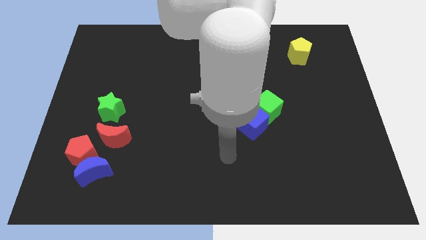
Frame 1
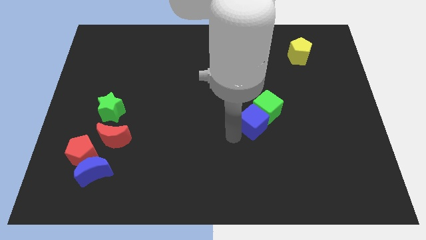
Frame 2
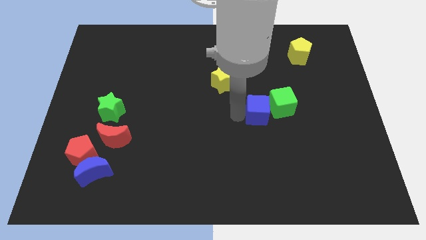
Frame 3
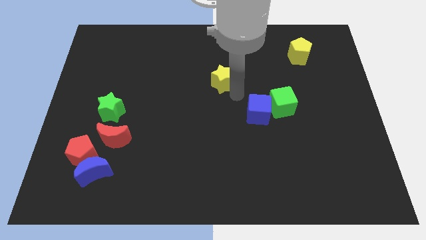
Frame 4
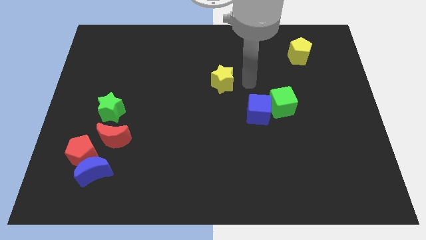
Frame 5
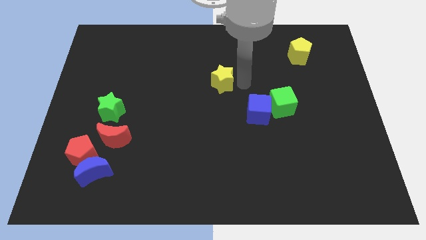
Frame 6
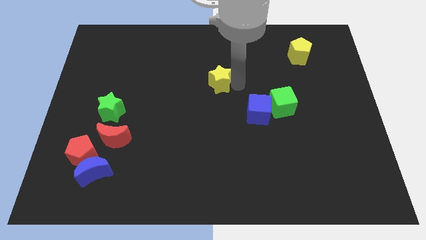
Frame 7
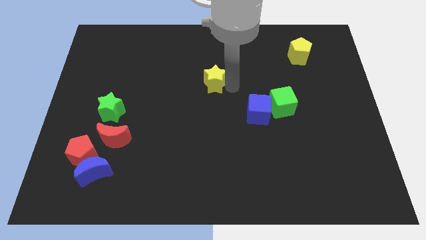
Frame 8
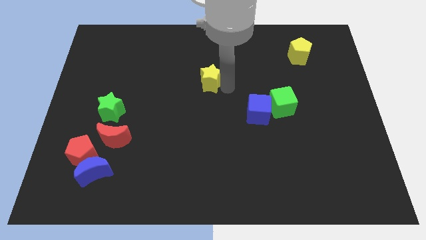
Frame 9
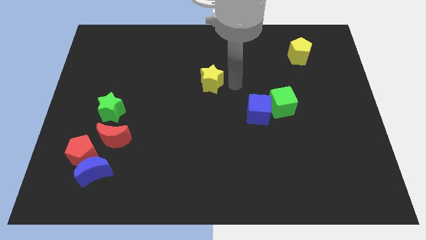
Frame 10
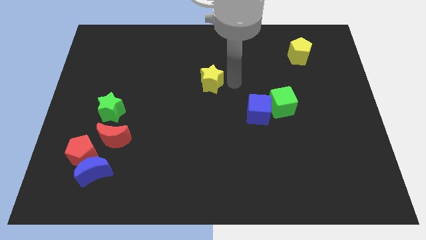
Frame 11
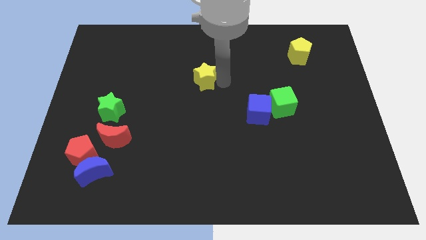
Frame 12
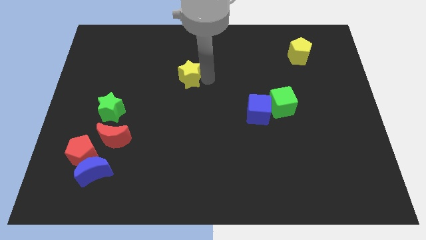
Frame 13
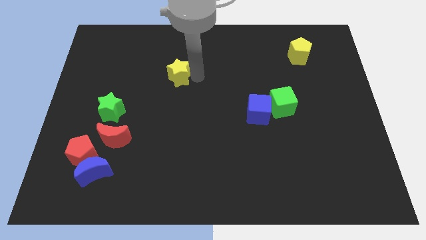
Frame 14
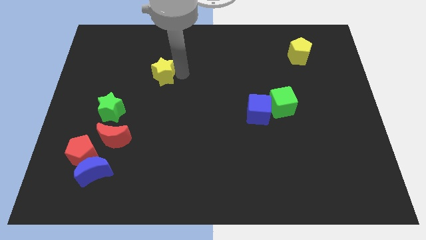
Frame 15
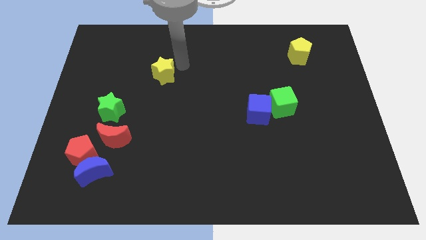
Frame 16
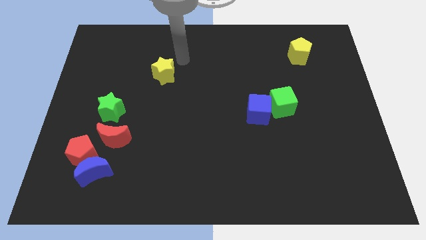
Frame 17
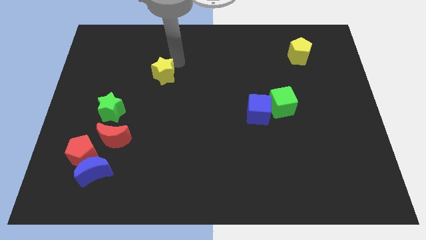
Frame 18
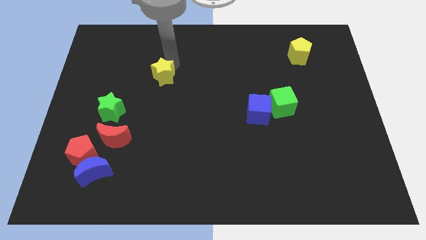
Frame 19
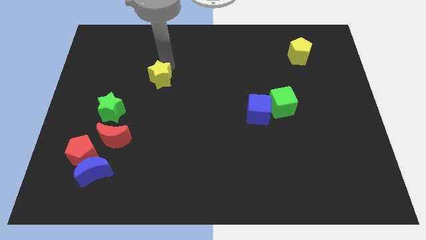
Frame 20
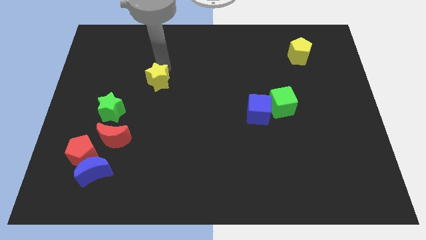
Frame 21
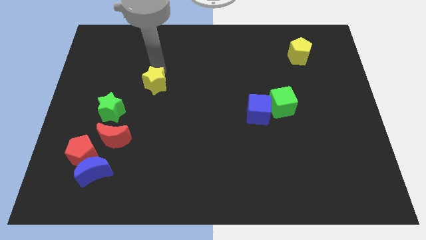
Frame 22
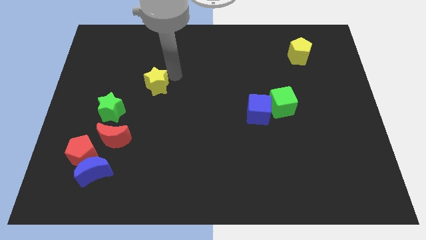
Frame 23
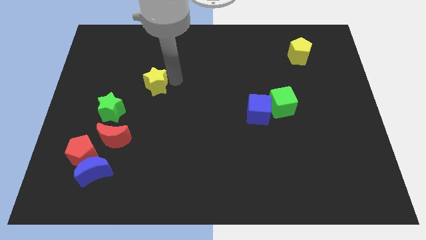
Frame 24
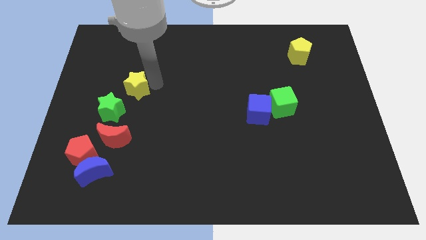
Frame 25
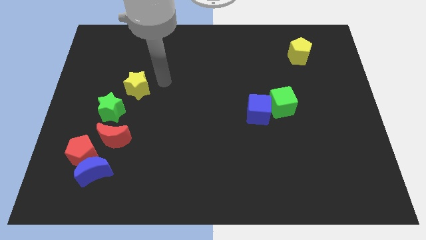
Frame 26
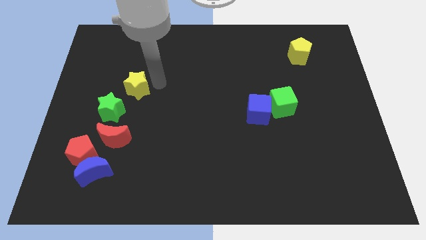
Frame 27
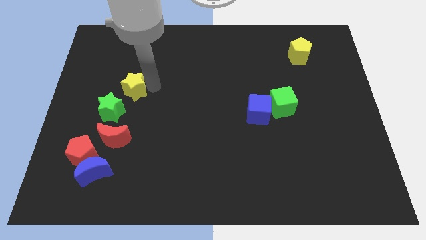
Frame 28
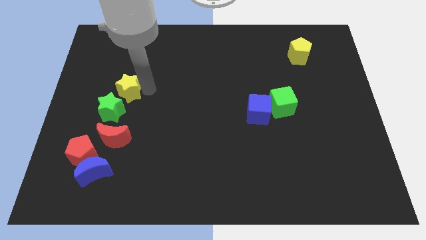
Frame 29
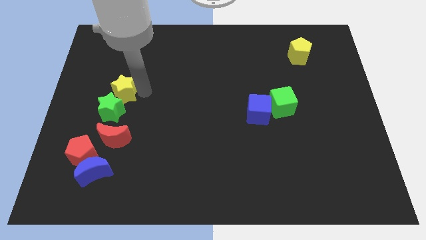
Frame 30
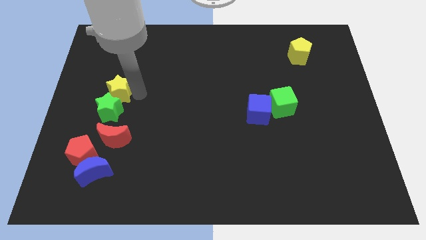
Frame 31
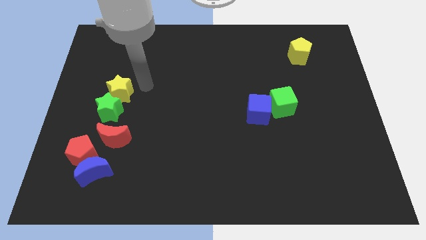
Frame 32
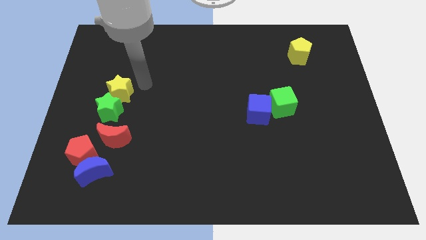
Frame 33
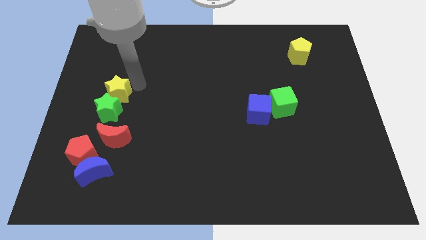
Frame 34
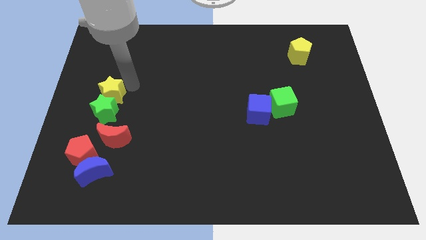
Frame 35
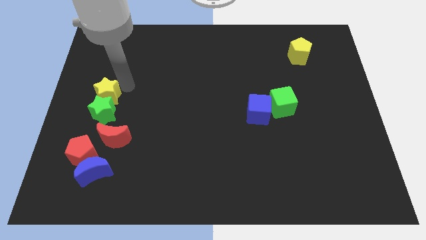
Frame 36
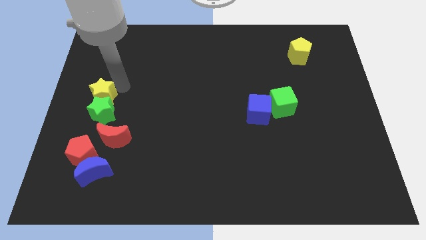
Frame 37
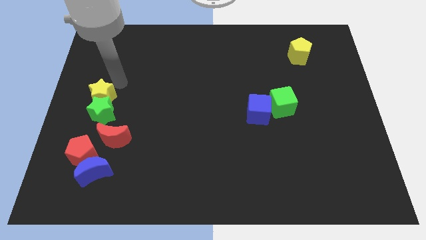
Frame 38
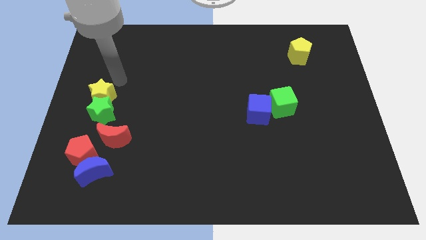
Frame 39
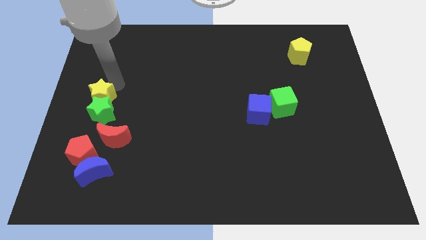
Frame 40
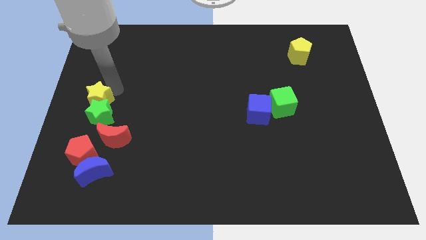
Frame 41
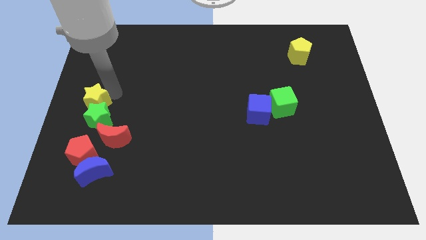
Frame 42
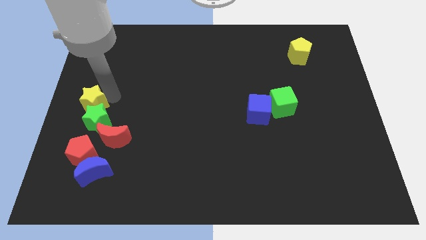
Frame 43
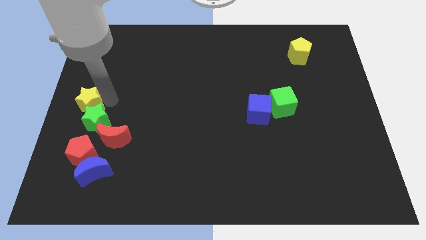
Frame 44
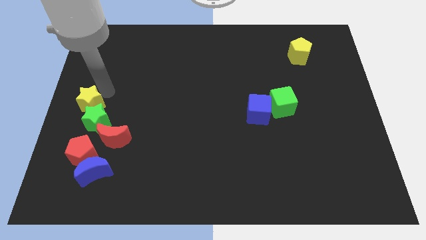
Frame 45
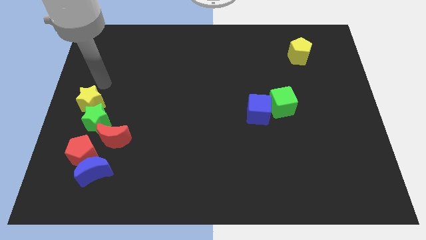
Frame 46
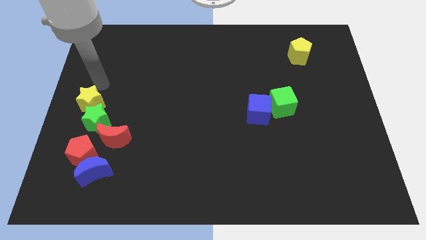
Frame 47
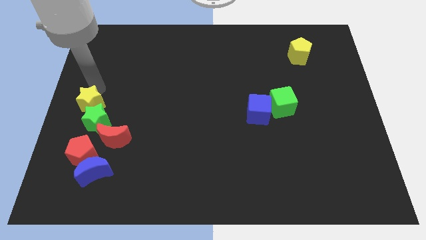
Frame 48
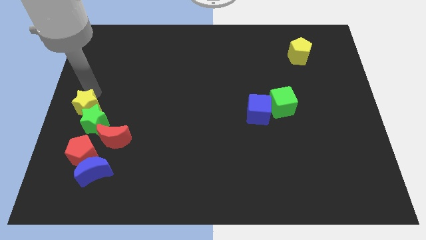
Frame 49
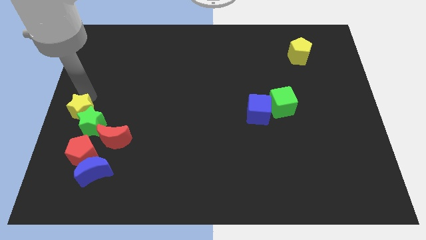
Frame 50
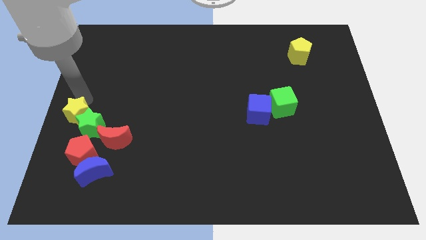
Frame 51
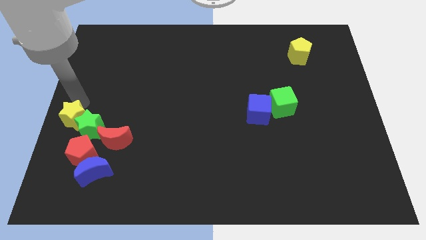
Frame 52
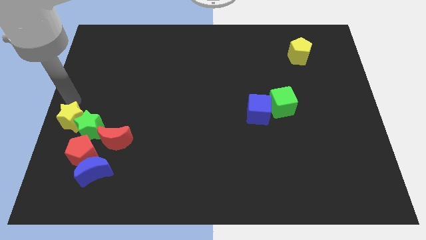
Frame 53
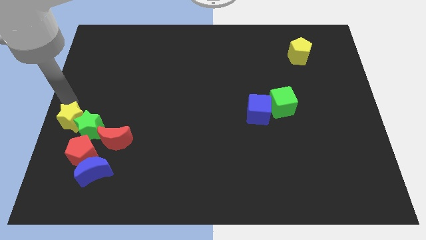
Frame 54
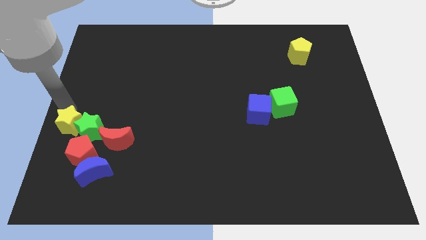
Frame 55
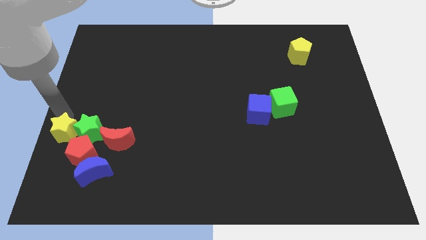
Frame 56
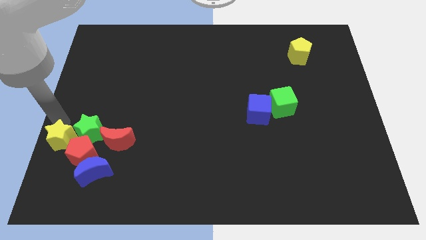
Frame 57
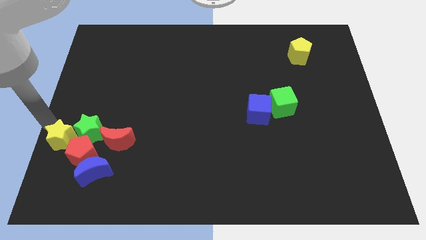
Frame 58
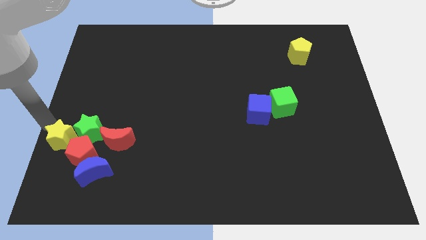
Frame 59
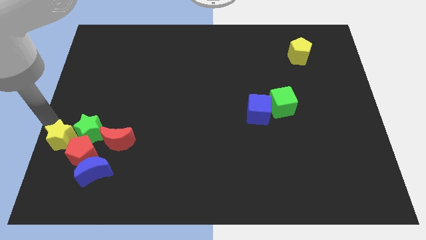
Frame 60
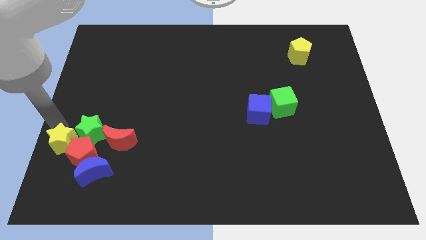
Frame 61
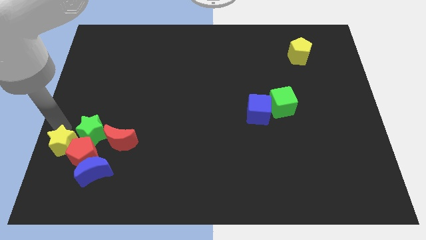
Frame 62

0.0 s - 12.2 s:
slide the yellow star close to the red pentagon

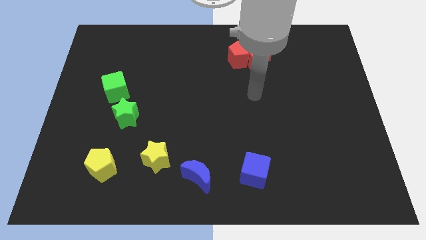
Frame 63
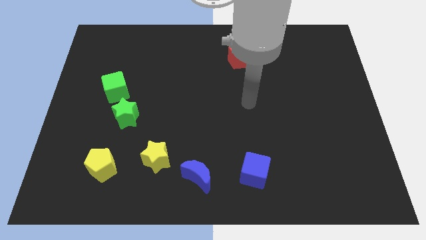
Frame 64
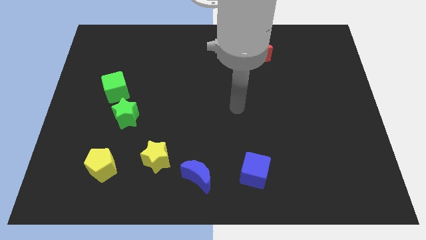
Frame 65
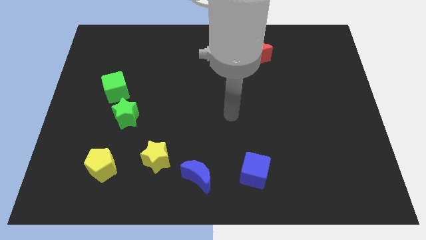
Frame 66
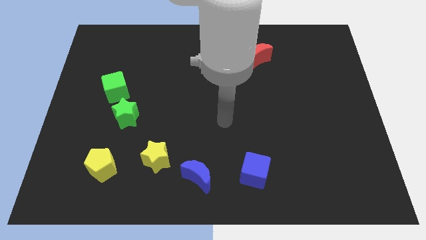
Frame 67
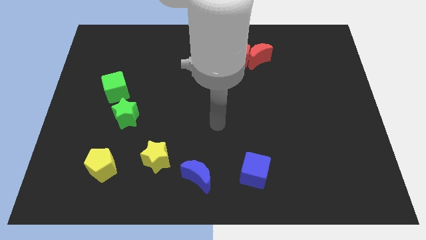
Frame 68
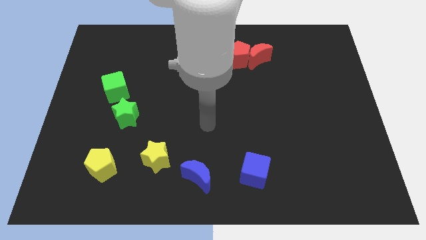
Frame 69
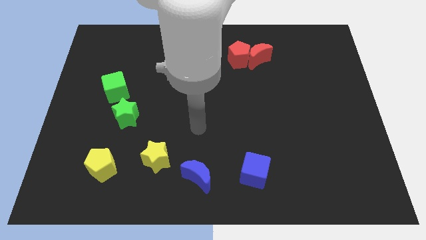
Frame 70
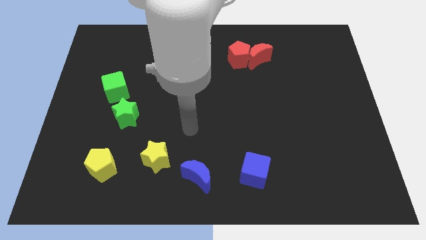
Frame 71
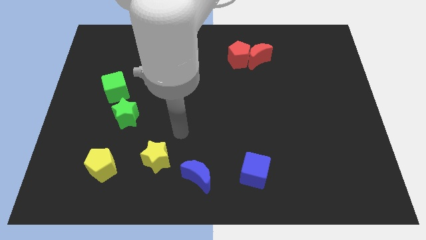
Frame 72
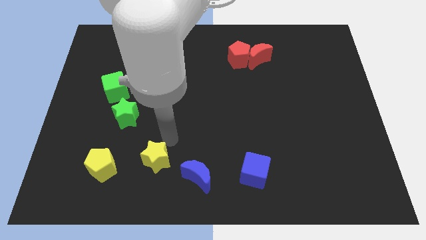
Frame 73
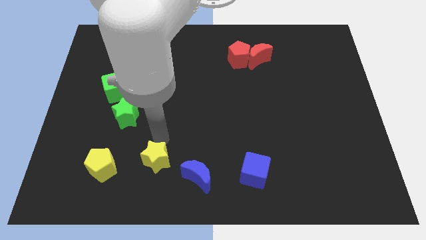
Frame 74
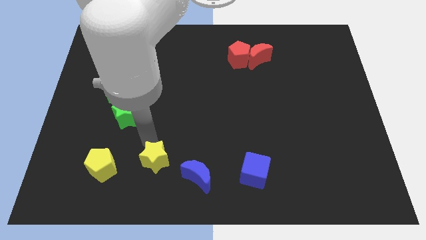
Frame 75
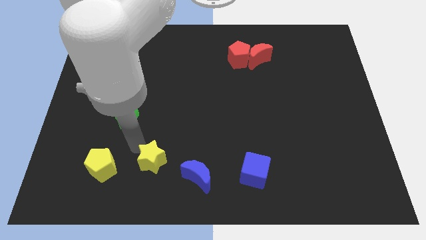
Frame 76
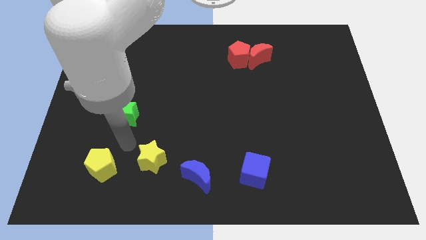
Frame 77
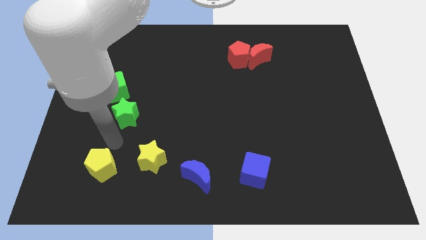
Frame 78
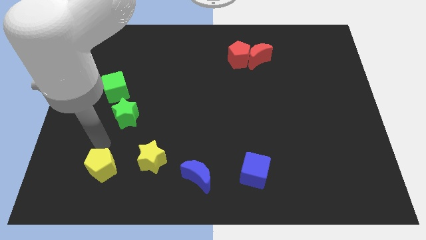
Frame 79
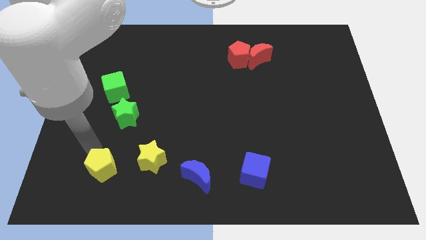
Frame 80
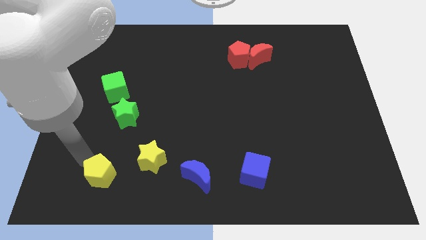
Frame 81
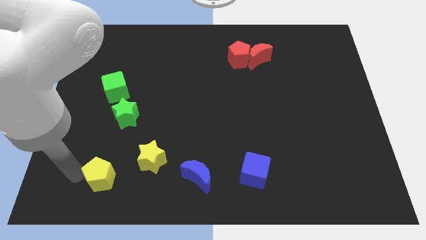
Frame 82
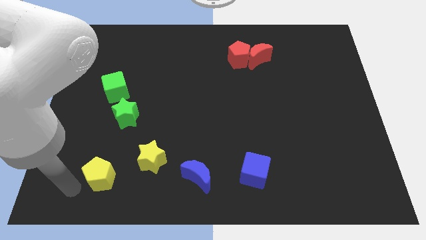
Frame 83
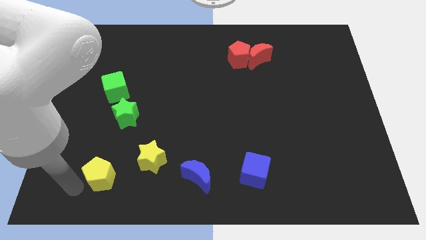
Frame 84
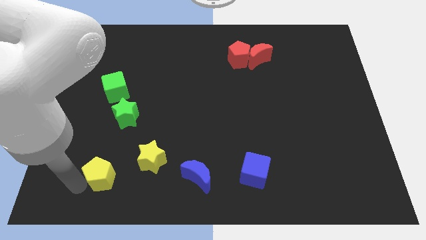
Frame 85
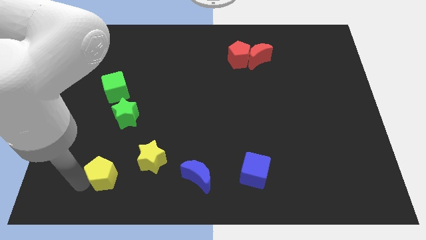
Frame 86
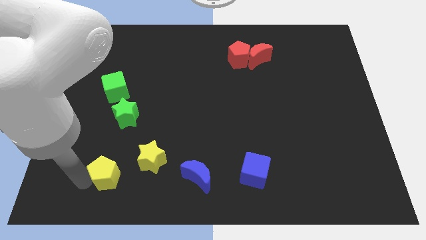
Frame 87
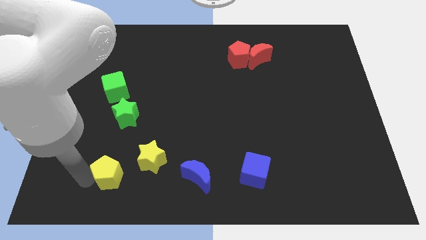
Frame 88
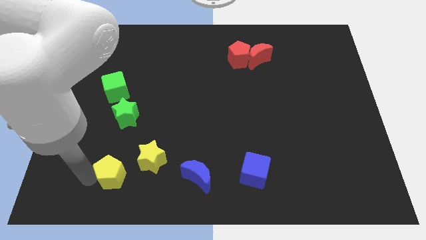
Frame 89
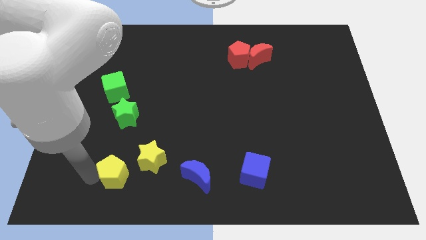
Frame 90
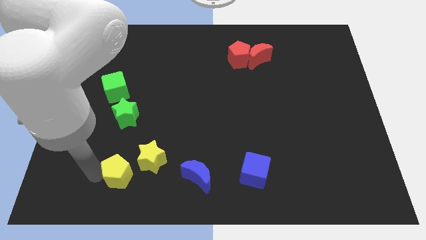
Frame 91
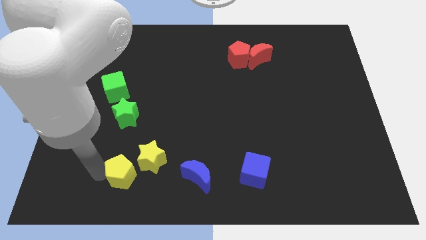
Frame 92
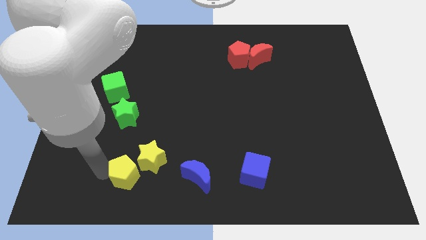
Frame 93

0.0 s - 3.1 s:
slide the yellow pentagon to the yellow star
